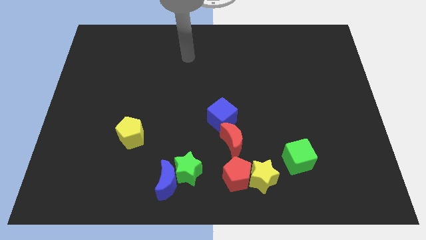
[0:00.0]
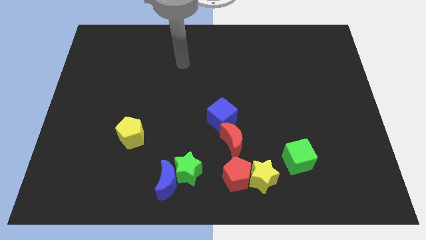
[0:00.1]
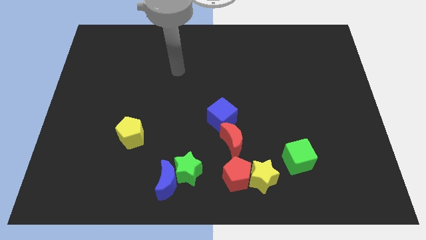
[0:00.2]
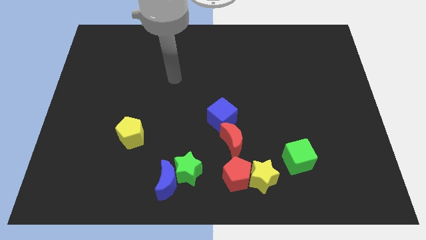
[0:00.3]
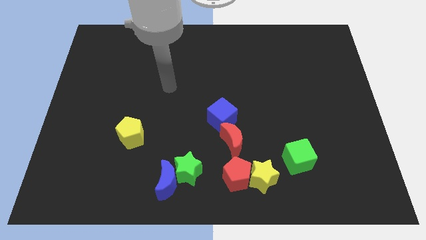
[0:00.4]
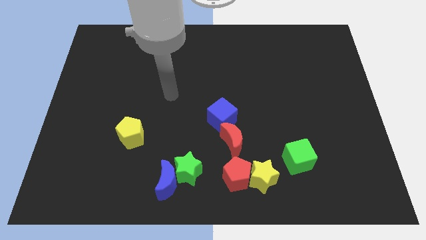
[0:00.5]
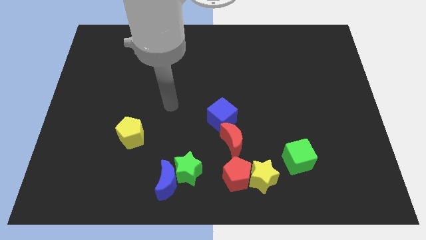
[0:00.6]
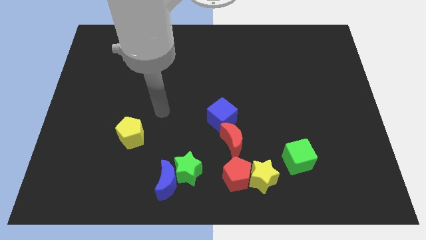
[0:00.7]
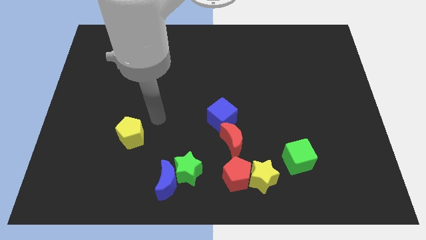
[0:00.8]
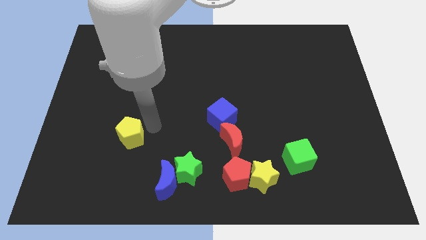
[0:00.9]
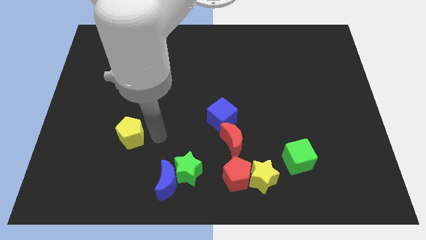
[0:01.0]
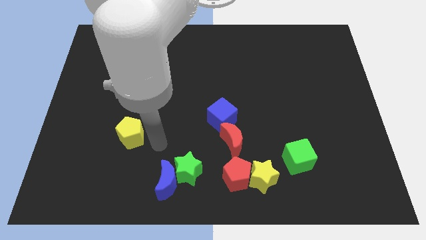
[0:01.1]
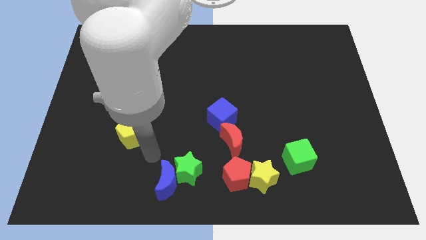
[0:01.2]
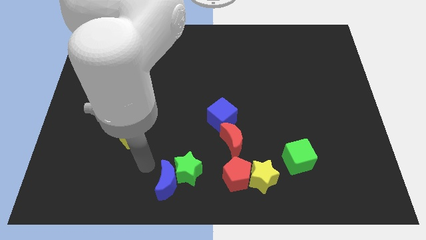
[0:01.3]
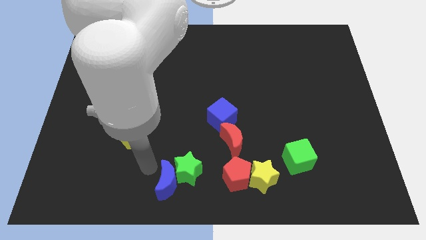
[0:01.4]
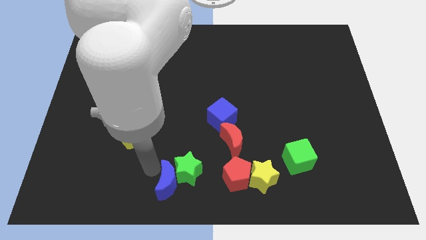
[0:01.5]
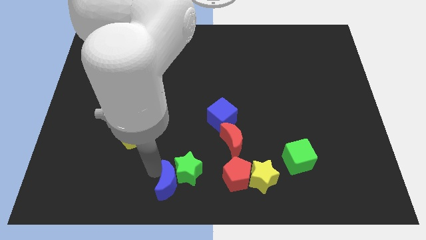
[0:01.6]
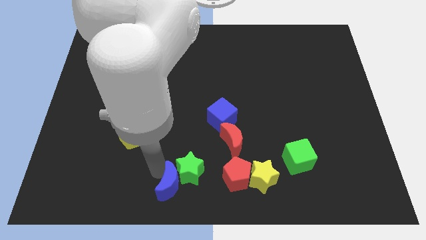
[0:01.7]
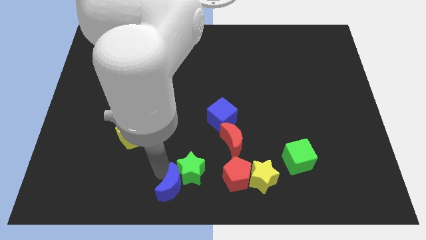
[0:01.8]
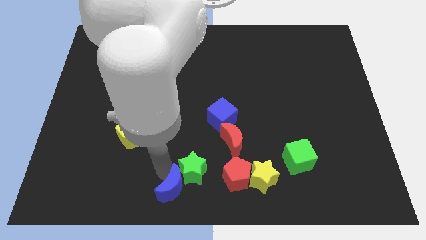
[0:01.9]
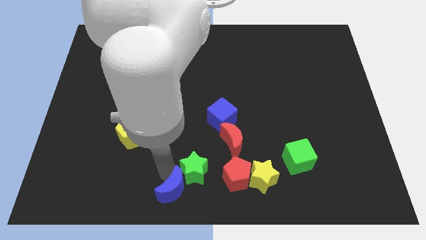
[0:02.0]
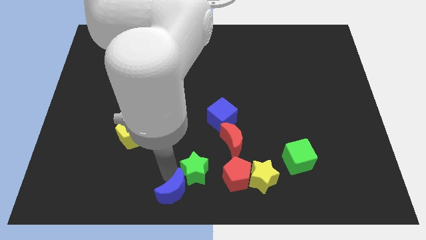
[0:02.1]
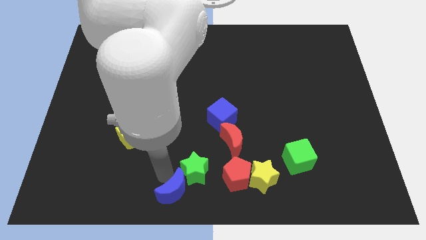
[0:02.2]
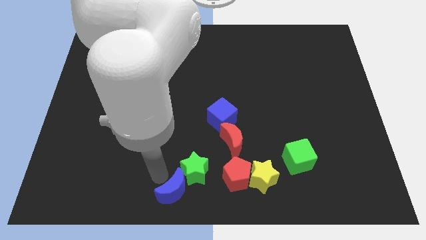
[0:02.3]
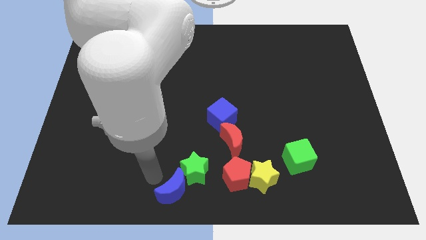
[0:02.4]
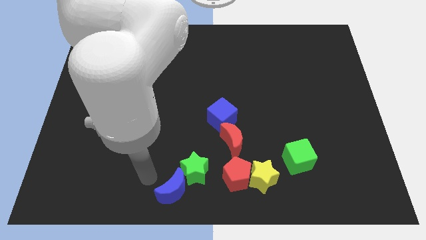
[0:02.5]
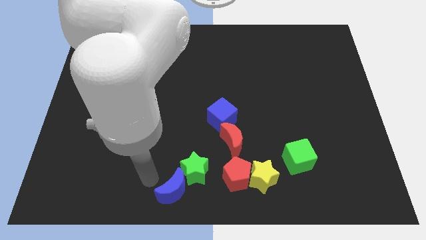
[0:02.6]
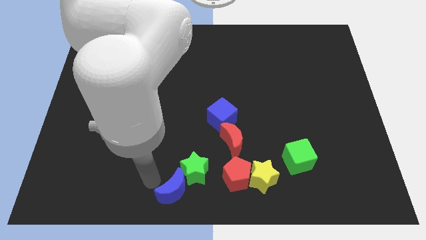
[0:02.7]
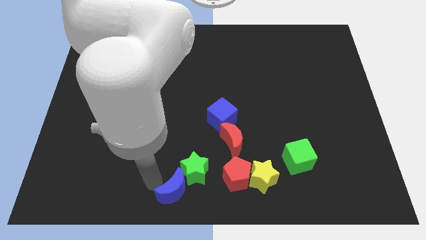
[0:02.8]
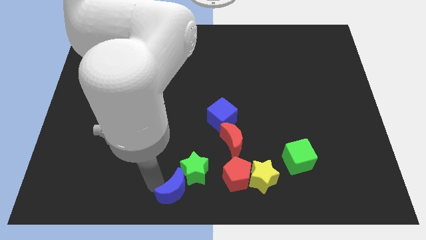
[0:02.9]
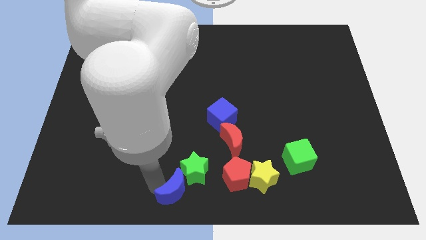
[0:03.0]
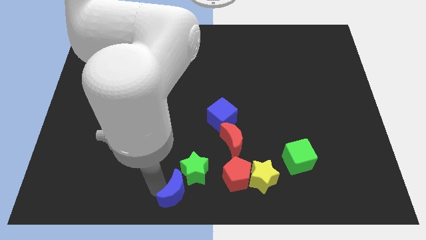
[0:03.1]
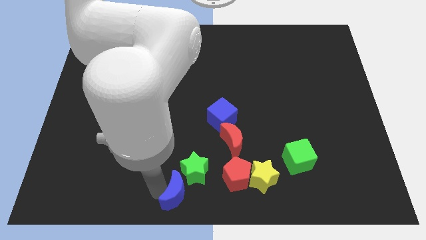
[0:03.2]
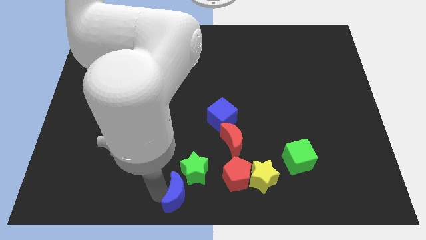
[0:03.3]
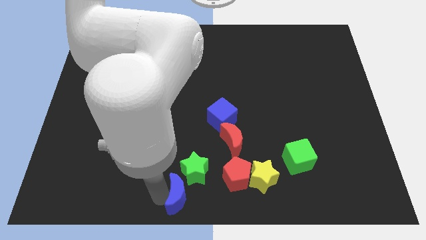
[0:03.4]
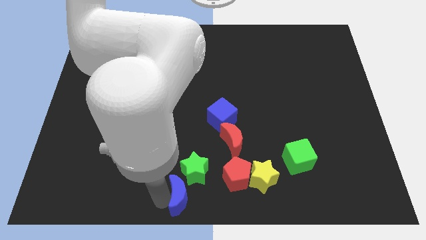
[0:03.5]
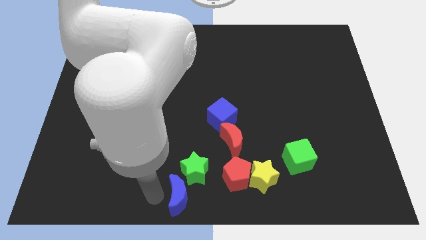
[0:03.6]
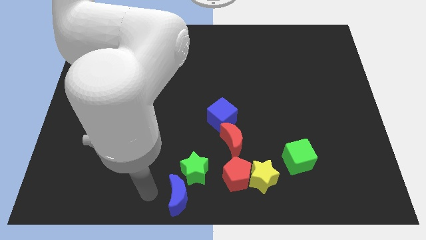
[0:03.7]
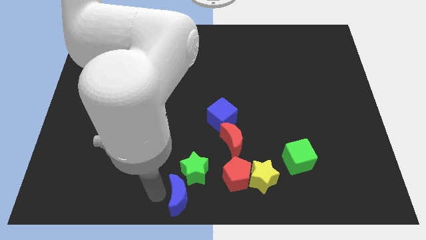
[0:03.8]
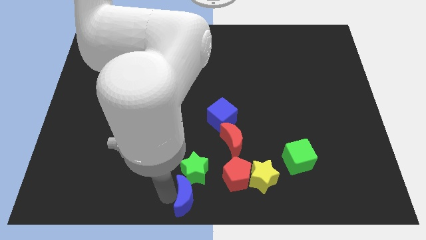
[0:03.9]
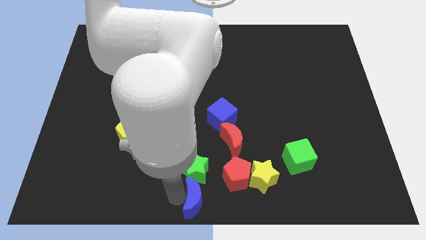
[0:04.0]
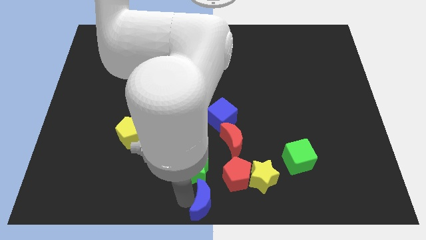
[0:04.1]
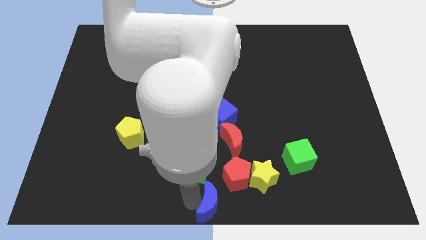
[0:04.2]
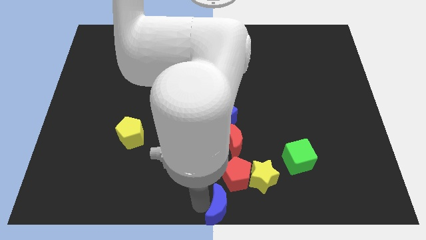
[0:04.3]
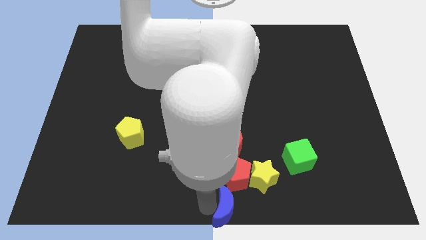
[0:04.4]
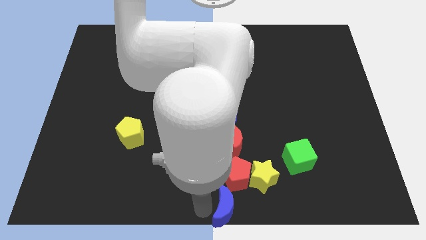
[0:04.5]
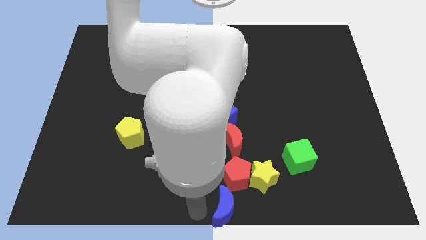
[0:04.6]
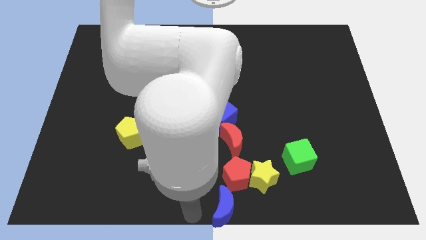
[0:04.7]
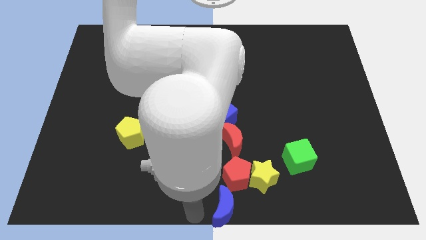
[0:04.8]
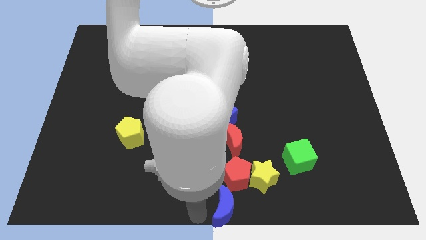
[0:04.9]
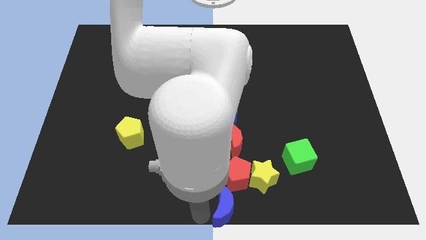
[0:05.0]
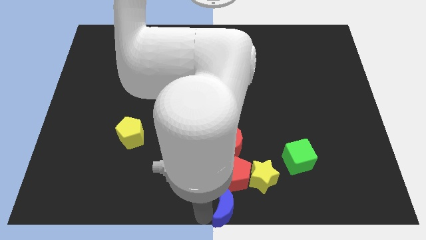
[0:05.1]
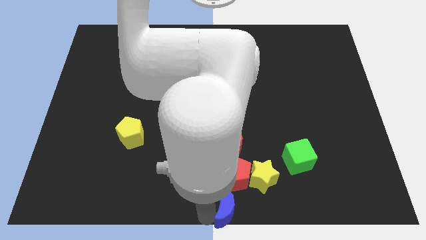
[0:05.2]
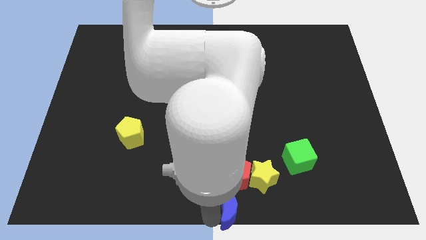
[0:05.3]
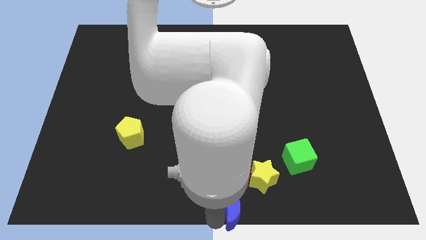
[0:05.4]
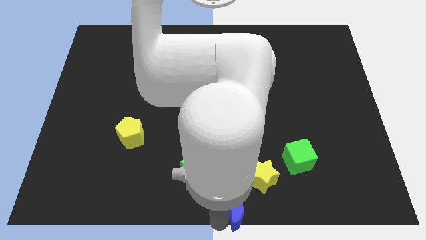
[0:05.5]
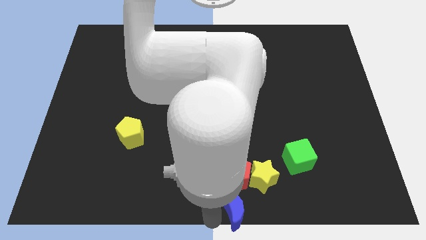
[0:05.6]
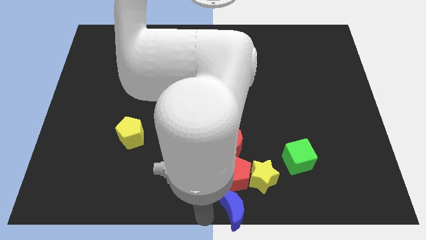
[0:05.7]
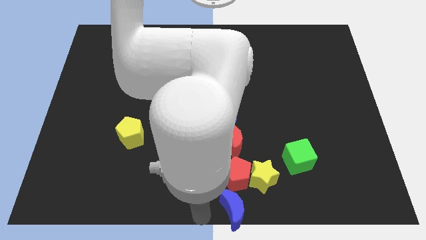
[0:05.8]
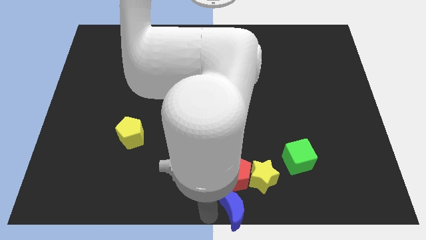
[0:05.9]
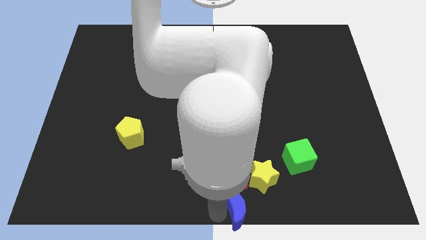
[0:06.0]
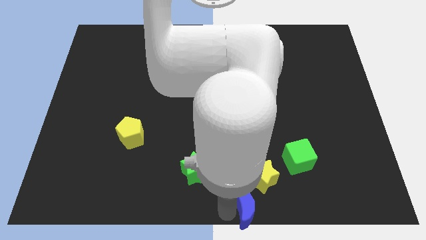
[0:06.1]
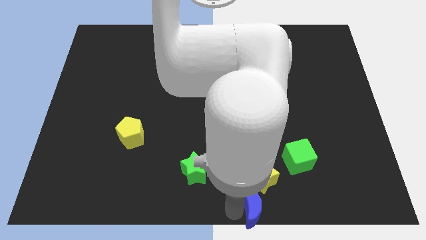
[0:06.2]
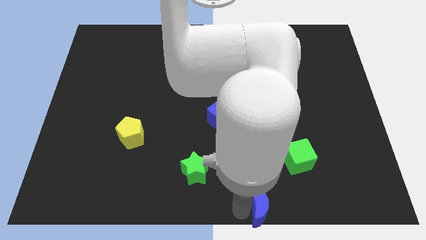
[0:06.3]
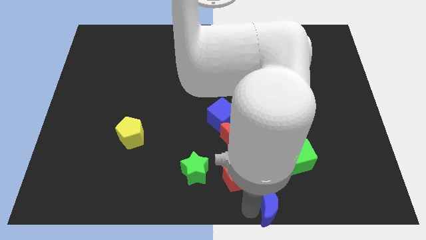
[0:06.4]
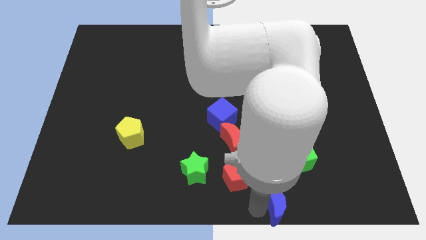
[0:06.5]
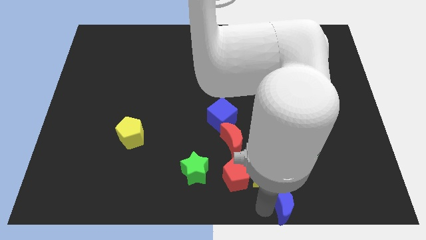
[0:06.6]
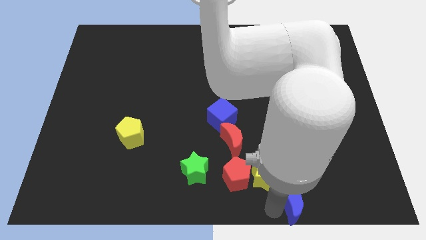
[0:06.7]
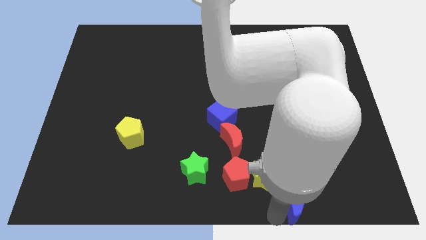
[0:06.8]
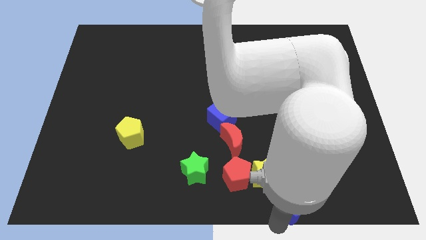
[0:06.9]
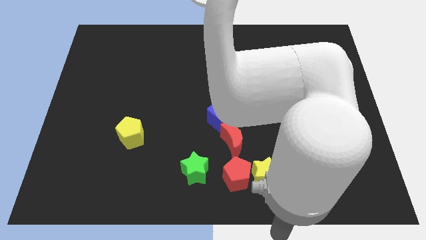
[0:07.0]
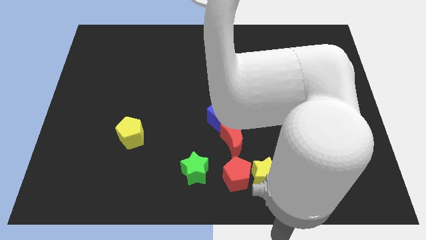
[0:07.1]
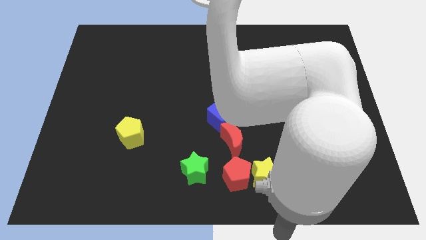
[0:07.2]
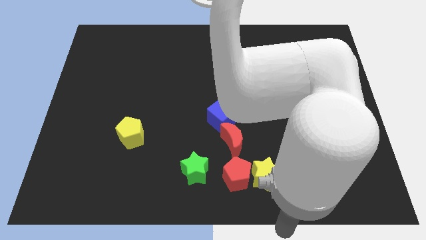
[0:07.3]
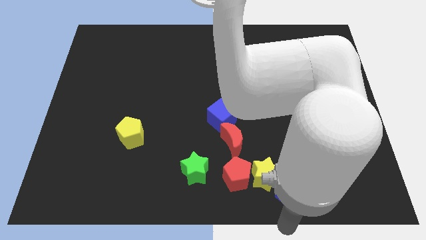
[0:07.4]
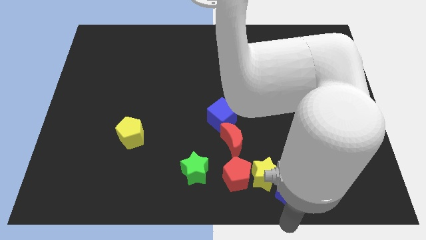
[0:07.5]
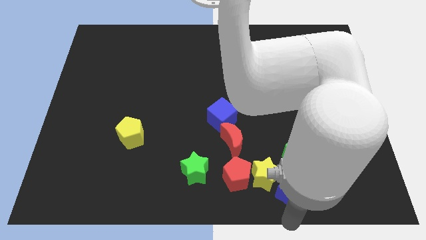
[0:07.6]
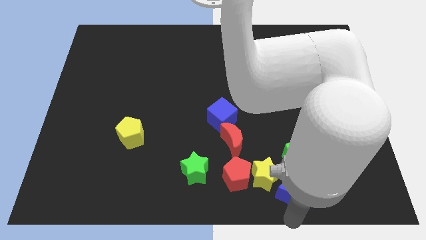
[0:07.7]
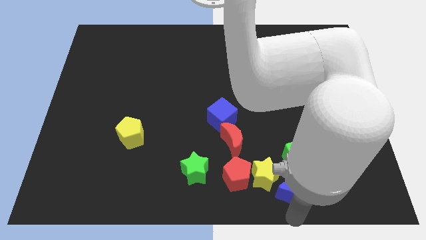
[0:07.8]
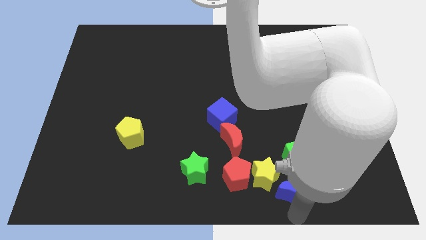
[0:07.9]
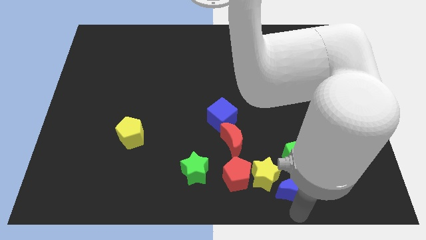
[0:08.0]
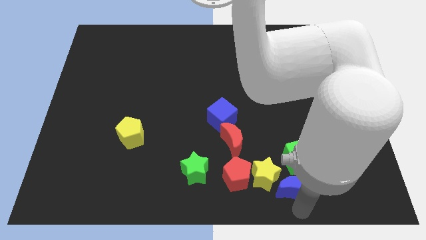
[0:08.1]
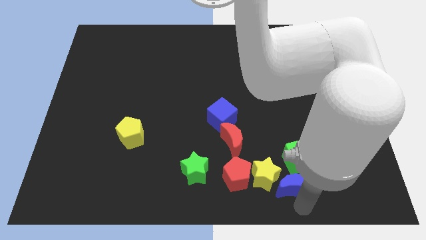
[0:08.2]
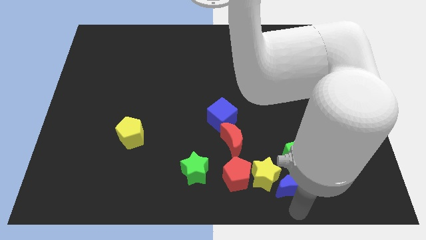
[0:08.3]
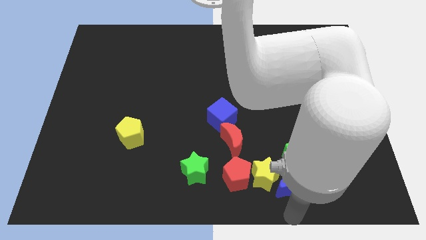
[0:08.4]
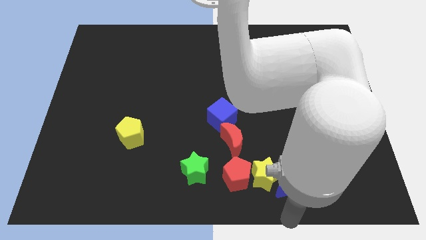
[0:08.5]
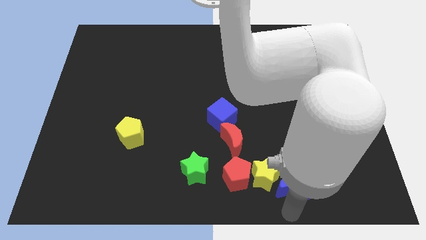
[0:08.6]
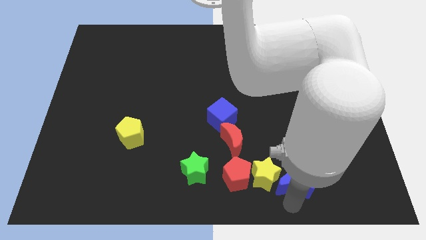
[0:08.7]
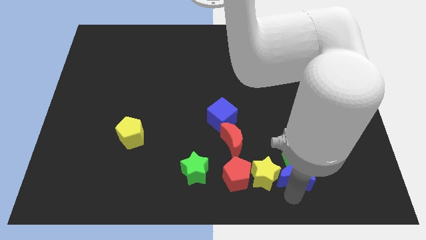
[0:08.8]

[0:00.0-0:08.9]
slide the blue moon next to the green cube
